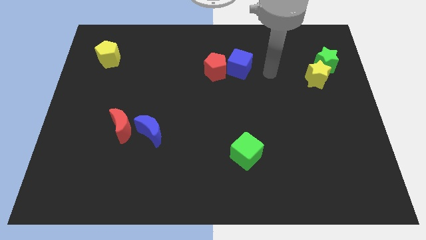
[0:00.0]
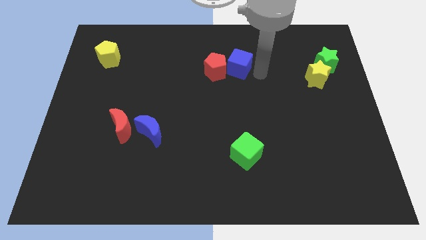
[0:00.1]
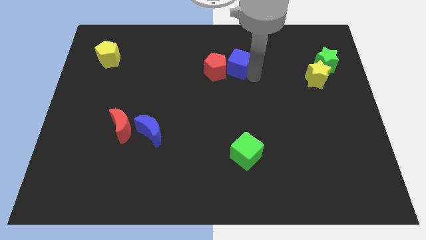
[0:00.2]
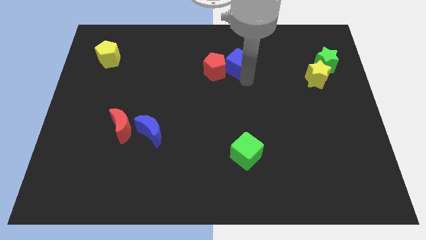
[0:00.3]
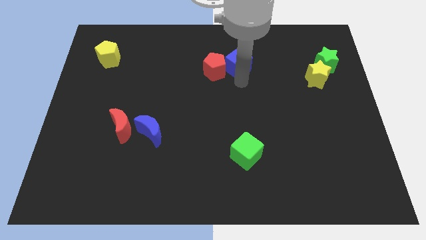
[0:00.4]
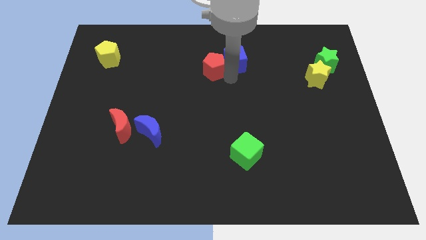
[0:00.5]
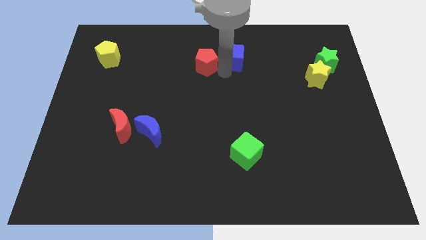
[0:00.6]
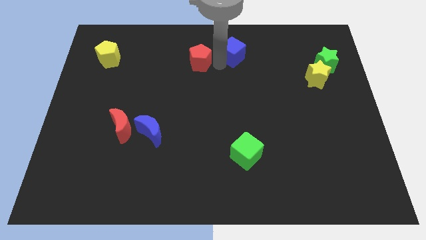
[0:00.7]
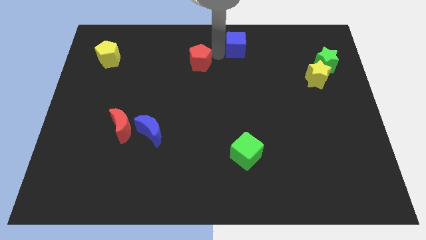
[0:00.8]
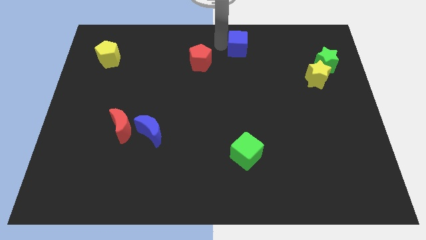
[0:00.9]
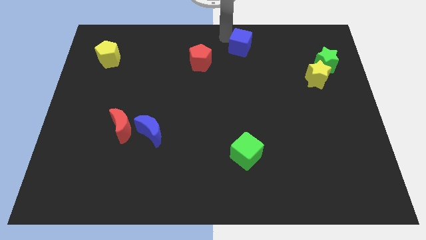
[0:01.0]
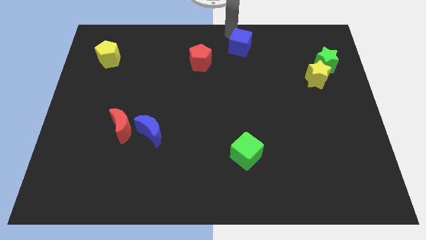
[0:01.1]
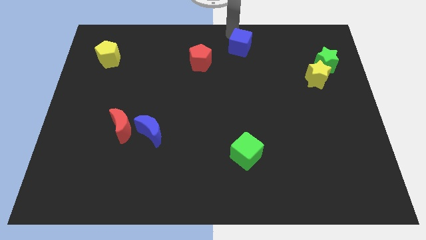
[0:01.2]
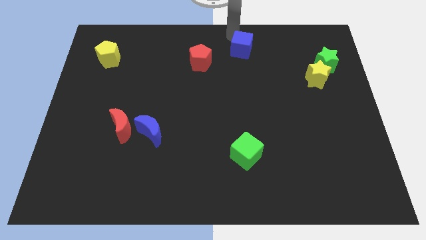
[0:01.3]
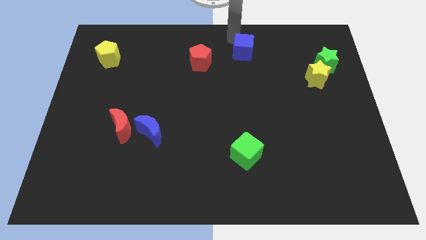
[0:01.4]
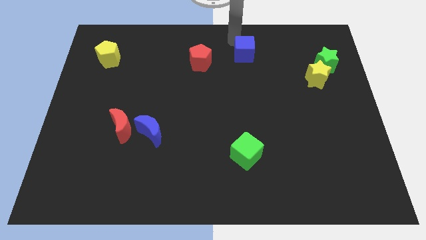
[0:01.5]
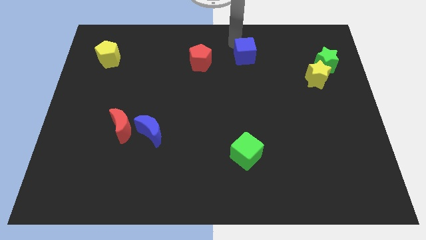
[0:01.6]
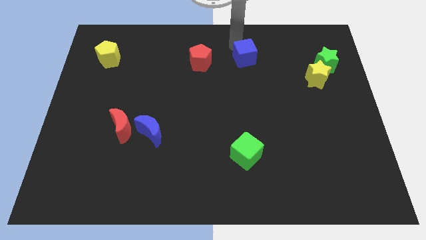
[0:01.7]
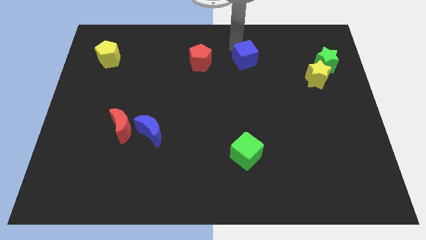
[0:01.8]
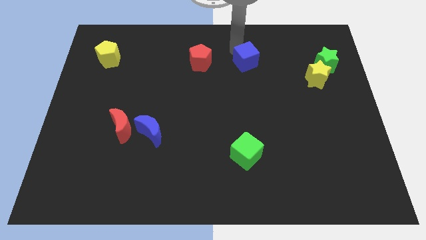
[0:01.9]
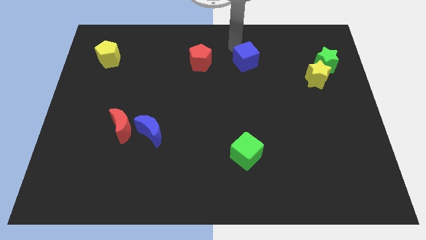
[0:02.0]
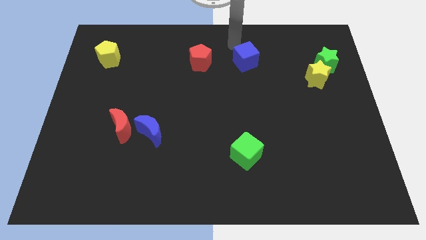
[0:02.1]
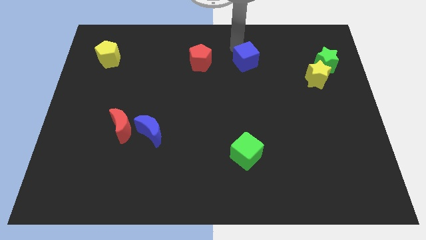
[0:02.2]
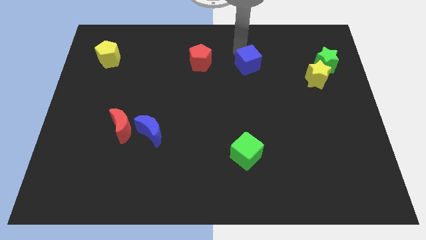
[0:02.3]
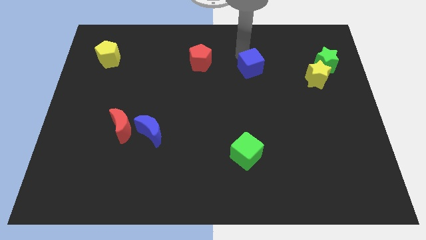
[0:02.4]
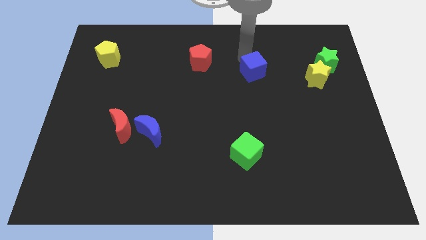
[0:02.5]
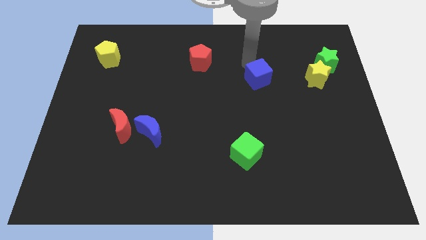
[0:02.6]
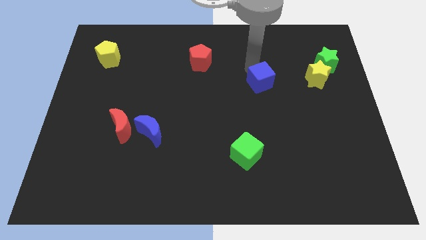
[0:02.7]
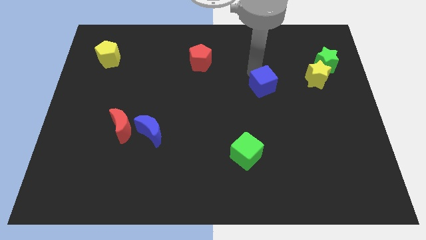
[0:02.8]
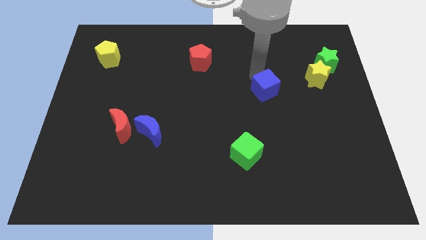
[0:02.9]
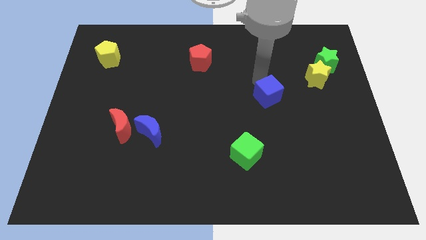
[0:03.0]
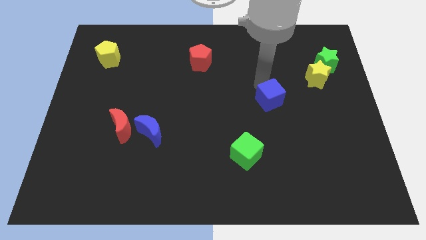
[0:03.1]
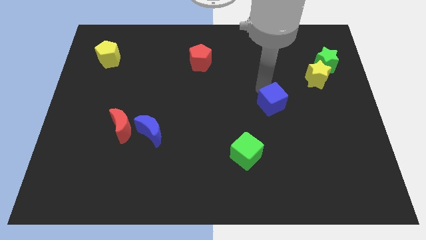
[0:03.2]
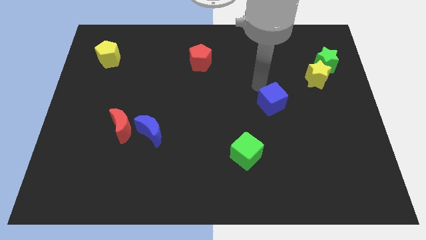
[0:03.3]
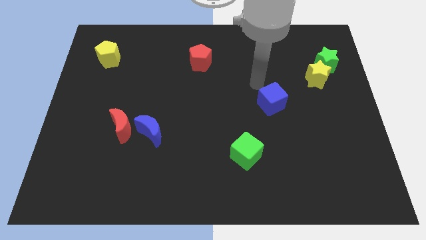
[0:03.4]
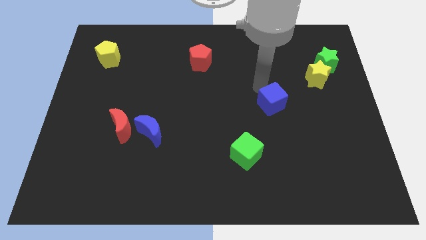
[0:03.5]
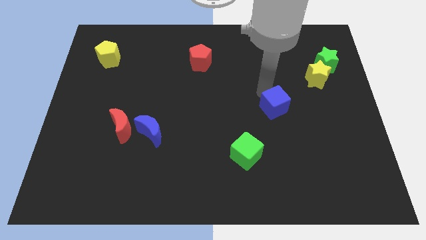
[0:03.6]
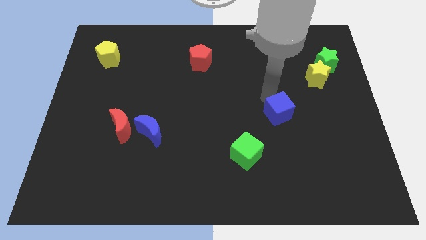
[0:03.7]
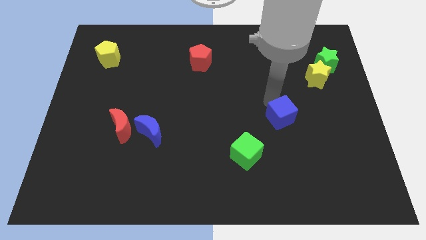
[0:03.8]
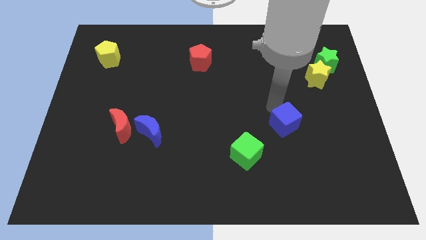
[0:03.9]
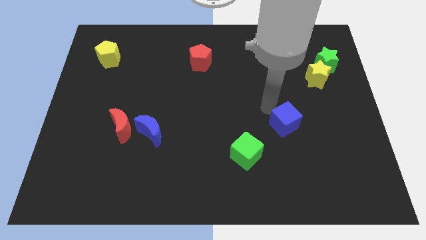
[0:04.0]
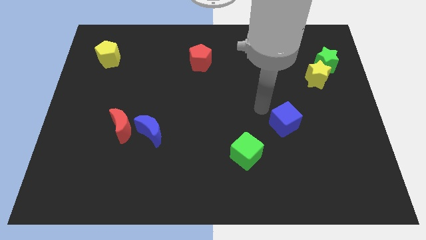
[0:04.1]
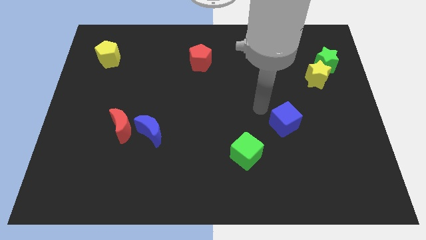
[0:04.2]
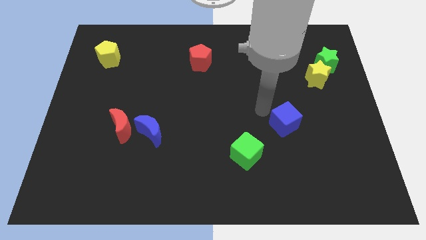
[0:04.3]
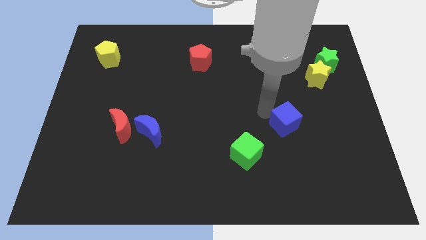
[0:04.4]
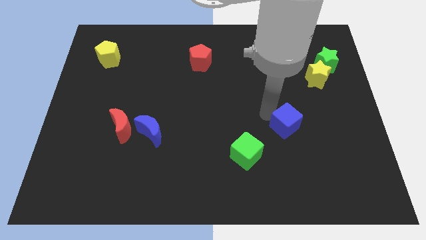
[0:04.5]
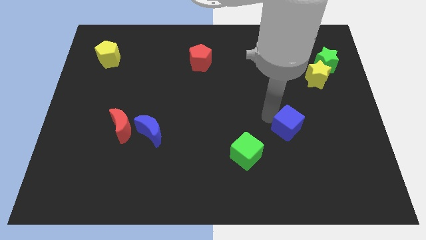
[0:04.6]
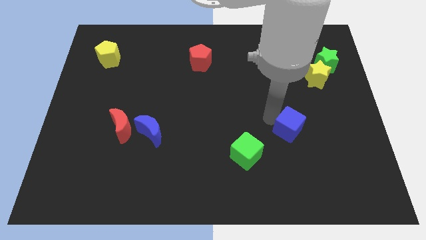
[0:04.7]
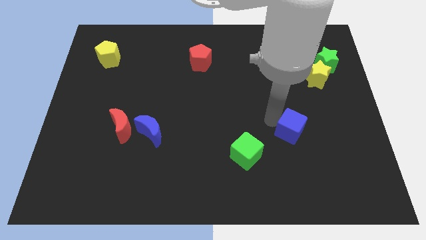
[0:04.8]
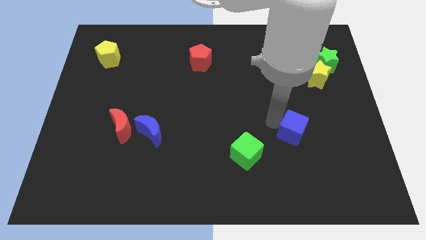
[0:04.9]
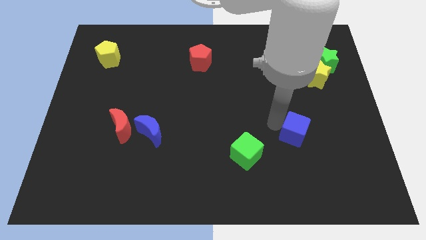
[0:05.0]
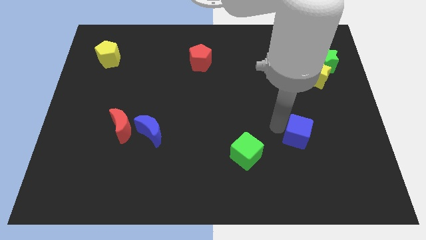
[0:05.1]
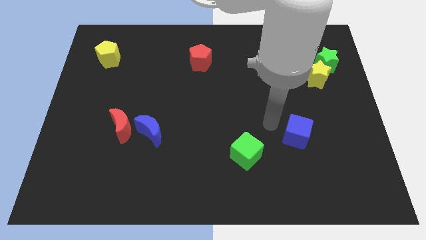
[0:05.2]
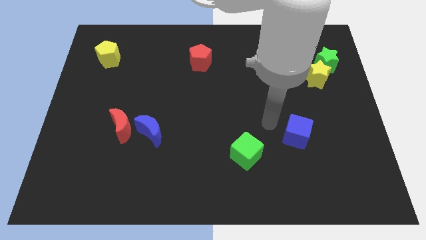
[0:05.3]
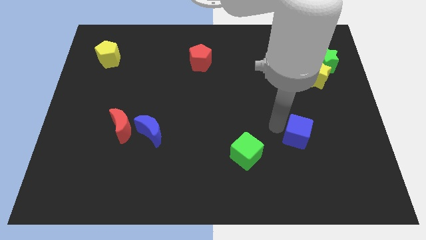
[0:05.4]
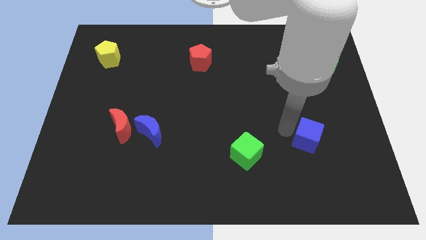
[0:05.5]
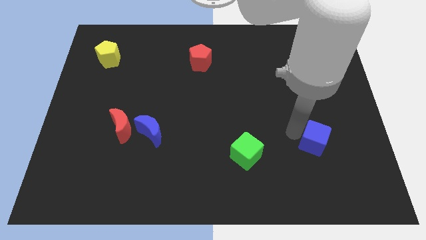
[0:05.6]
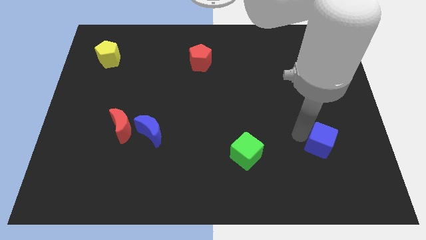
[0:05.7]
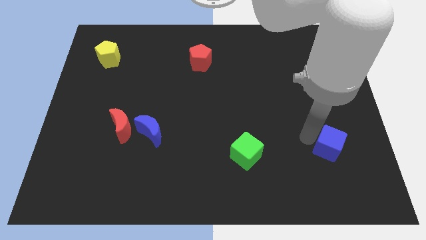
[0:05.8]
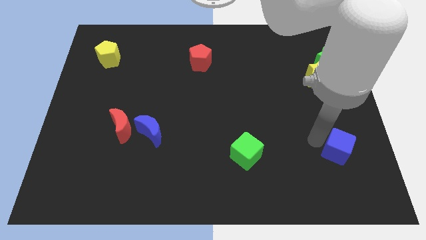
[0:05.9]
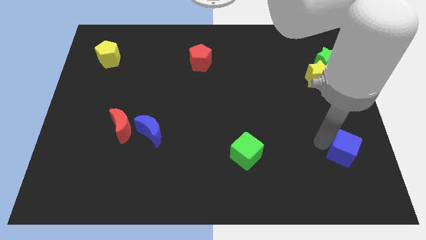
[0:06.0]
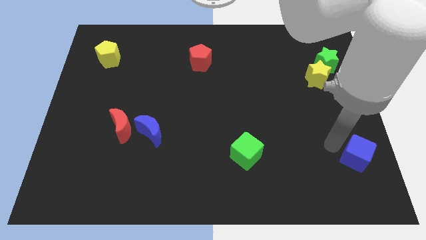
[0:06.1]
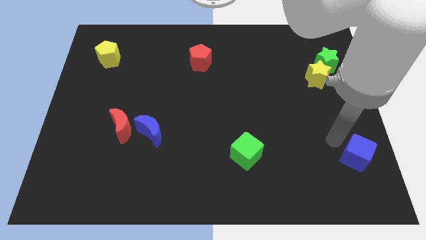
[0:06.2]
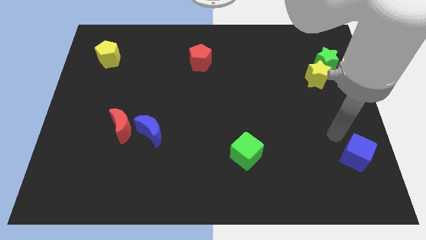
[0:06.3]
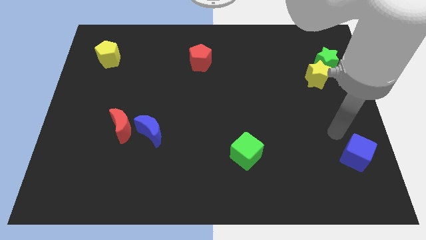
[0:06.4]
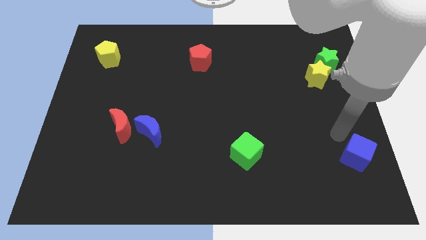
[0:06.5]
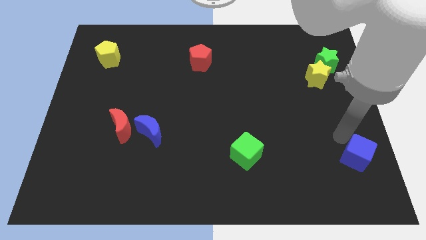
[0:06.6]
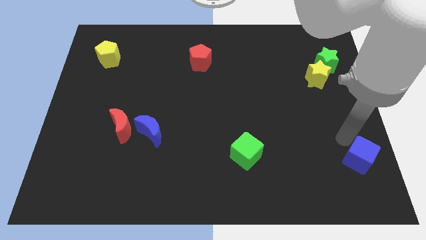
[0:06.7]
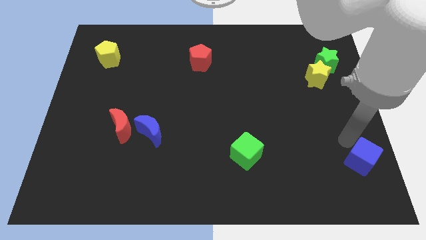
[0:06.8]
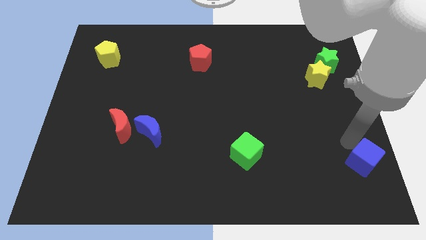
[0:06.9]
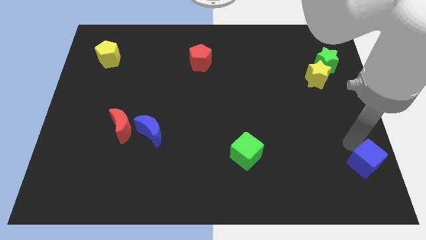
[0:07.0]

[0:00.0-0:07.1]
push the blue cube to the bottom right of the board
